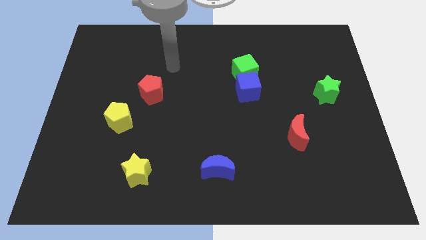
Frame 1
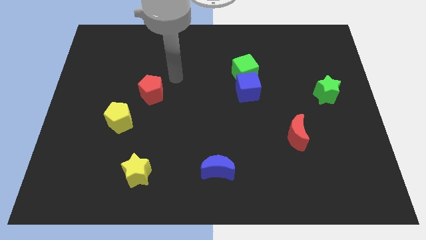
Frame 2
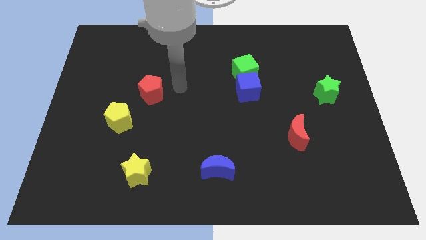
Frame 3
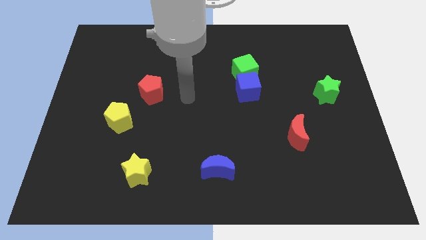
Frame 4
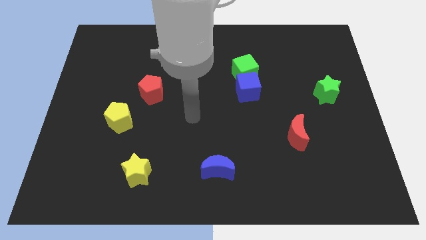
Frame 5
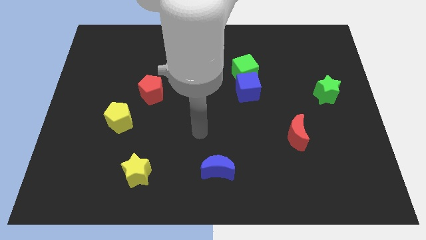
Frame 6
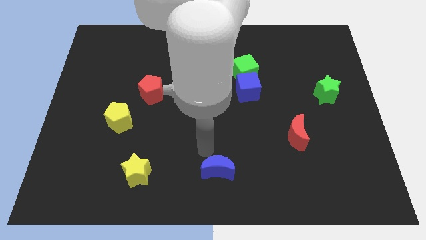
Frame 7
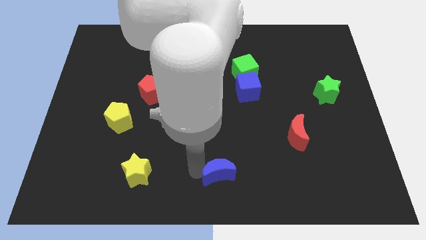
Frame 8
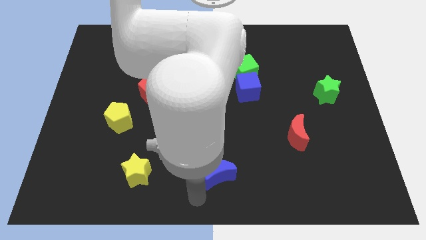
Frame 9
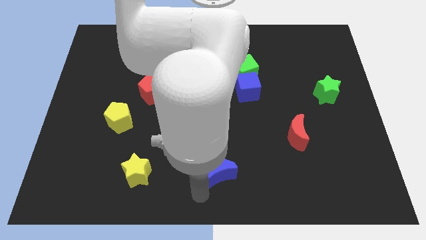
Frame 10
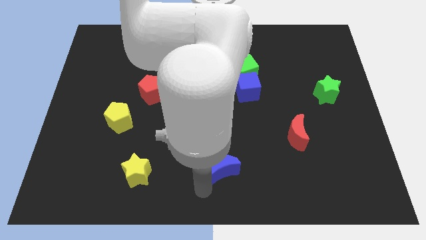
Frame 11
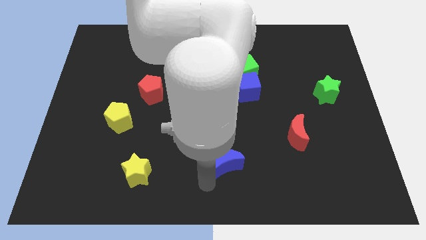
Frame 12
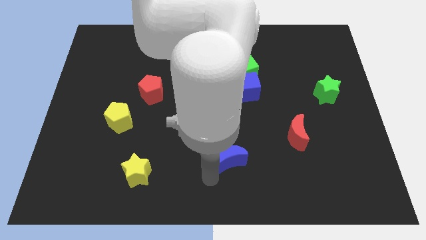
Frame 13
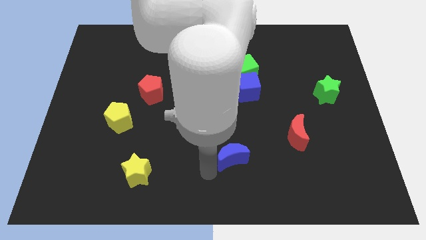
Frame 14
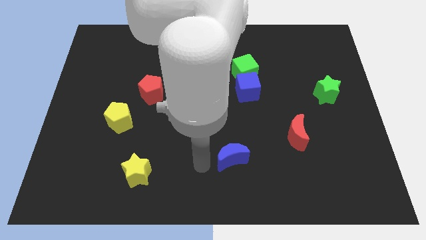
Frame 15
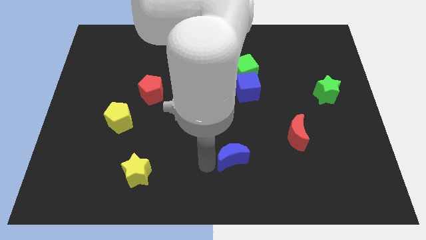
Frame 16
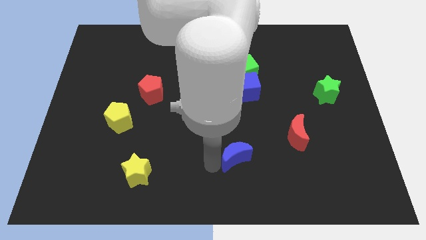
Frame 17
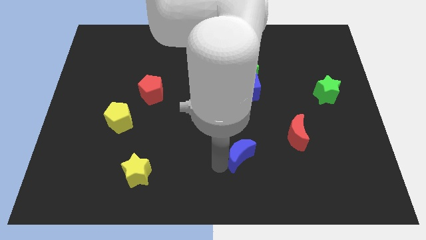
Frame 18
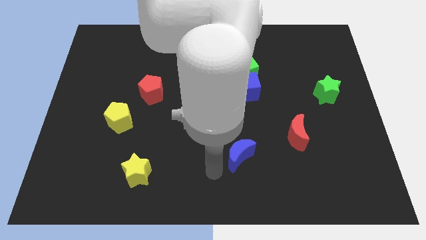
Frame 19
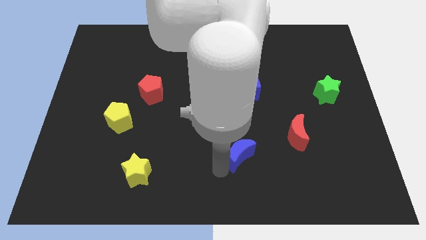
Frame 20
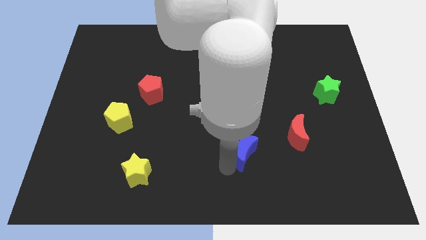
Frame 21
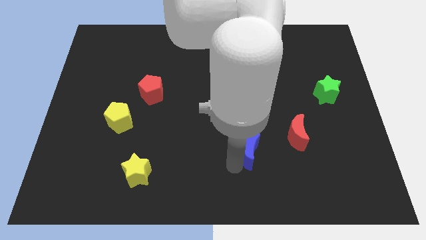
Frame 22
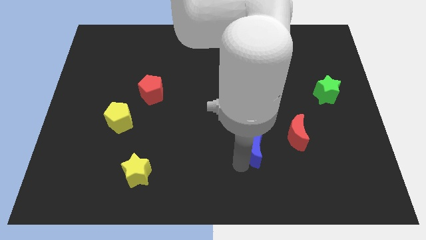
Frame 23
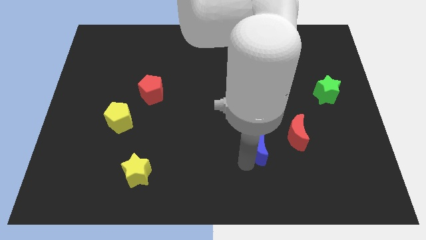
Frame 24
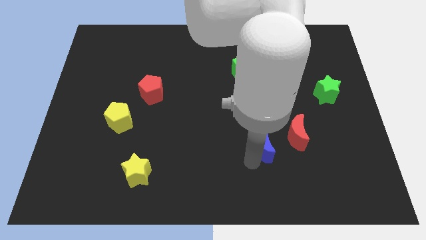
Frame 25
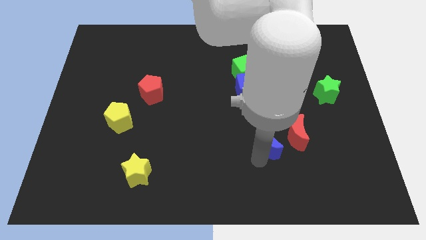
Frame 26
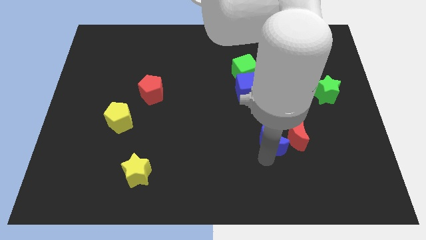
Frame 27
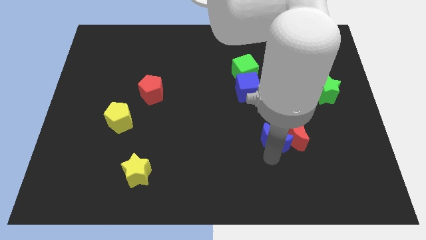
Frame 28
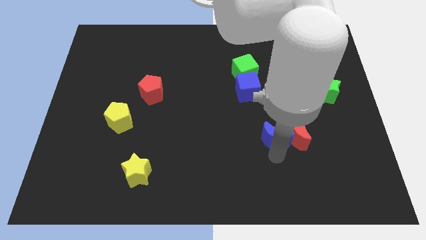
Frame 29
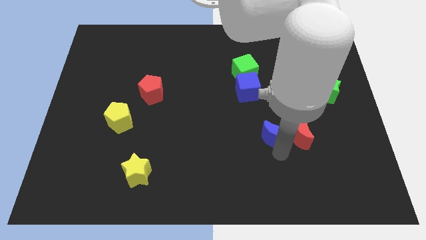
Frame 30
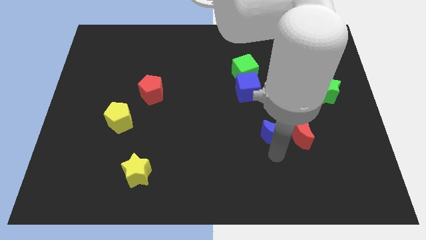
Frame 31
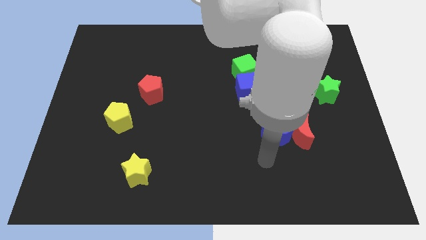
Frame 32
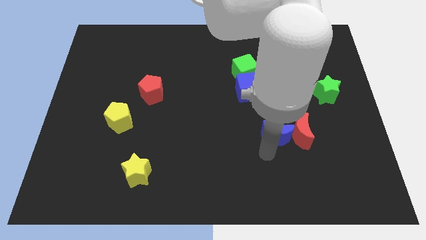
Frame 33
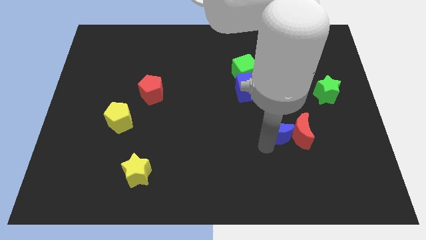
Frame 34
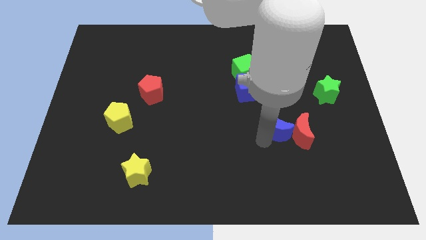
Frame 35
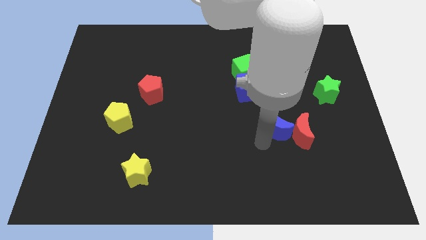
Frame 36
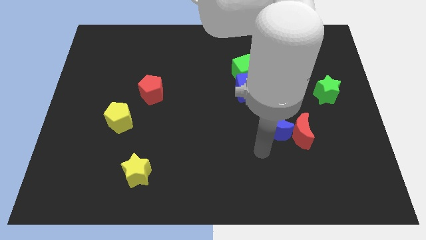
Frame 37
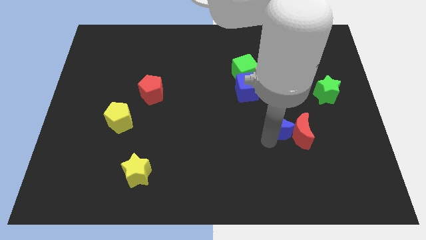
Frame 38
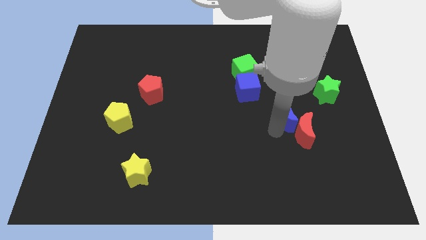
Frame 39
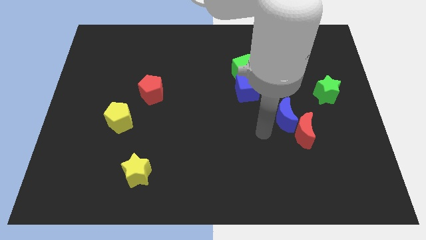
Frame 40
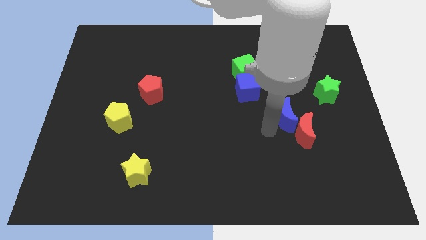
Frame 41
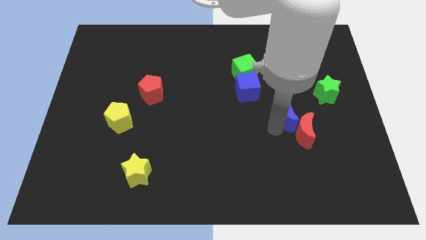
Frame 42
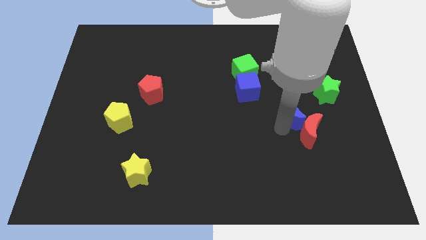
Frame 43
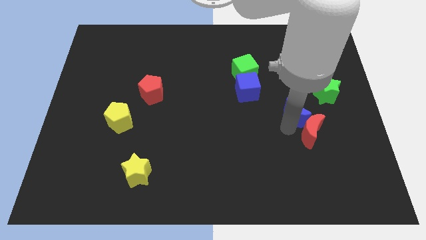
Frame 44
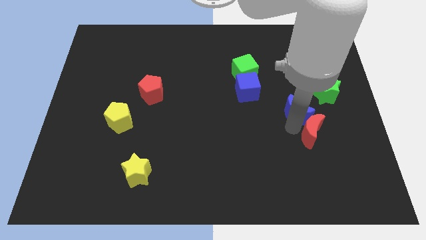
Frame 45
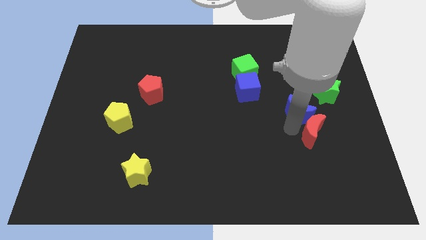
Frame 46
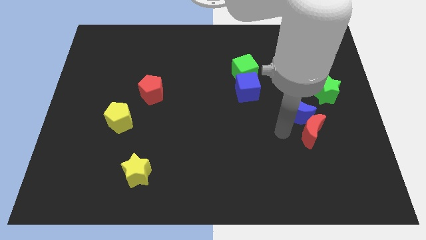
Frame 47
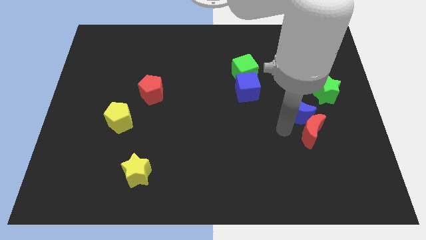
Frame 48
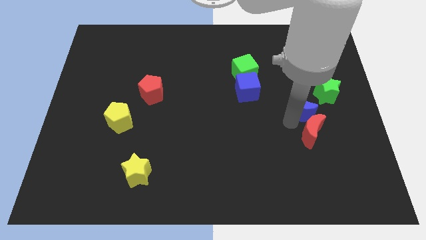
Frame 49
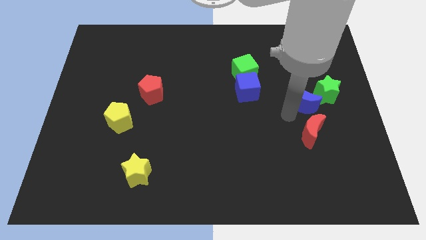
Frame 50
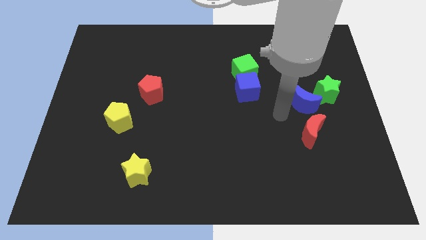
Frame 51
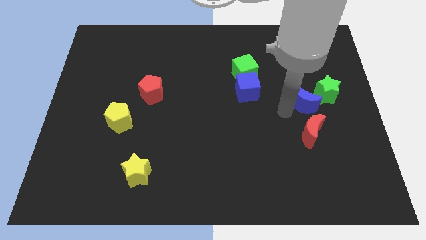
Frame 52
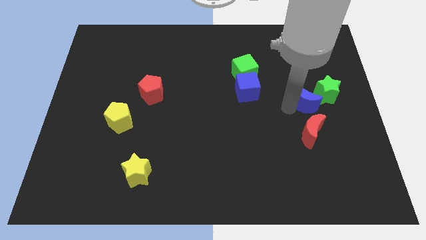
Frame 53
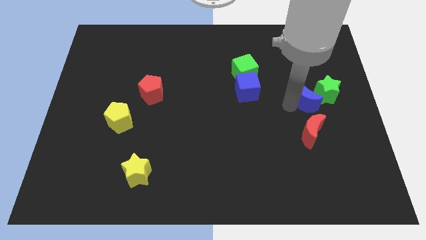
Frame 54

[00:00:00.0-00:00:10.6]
move the blue moon towards the green star

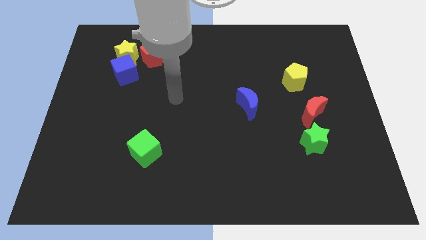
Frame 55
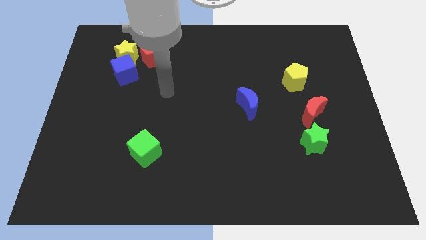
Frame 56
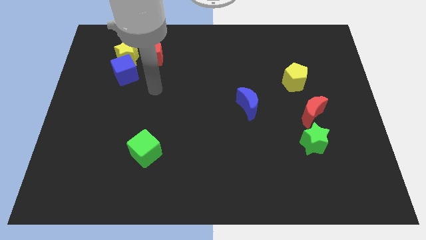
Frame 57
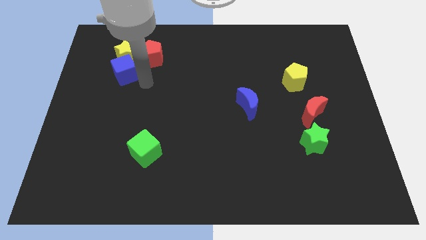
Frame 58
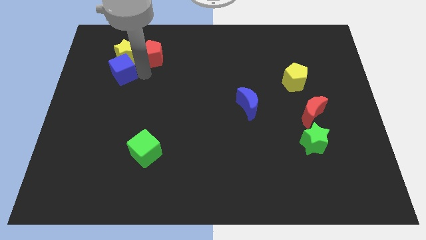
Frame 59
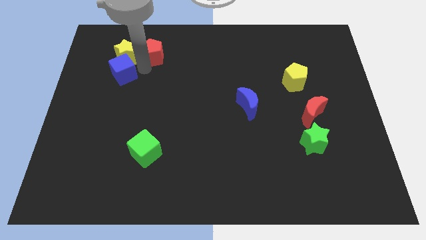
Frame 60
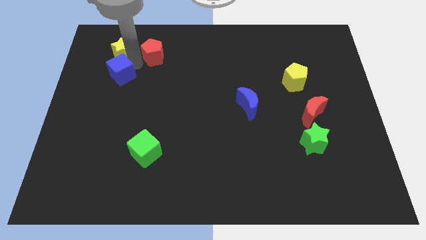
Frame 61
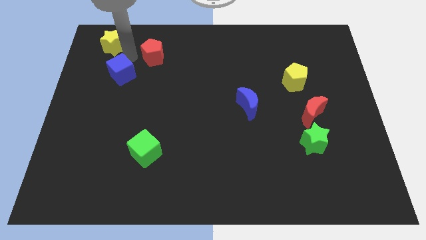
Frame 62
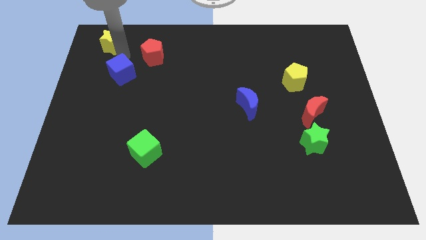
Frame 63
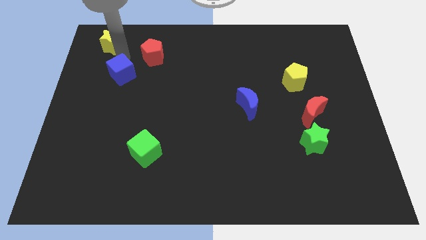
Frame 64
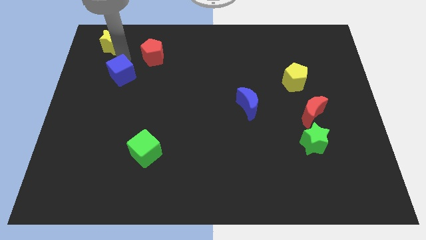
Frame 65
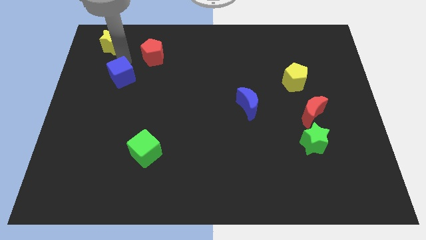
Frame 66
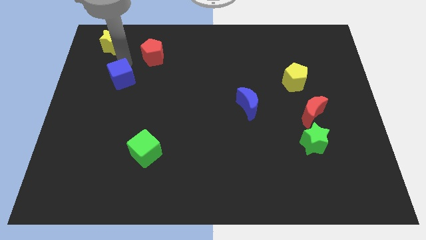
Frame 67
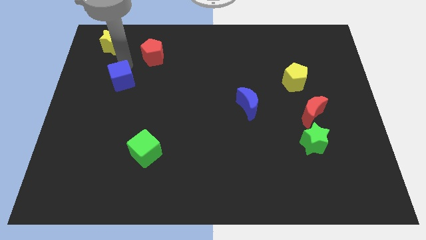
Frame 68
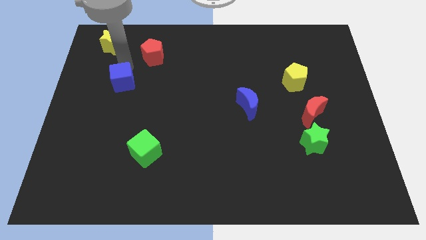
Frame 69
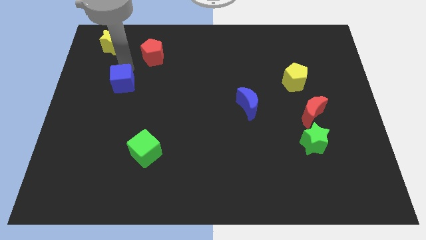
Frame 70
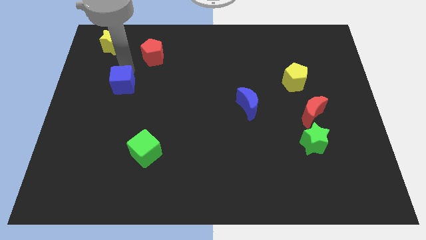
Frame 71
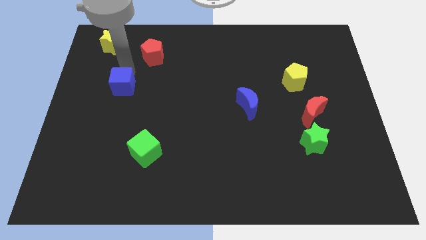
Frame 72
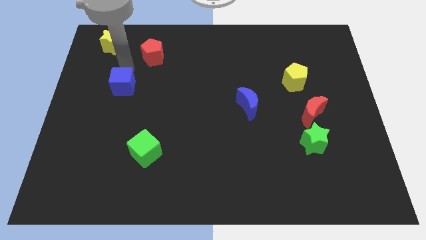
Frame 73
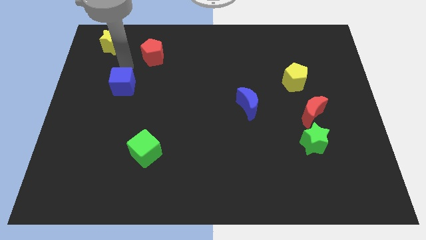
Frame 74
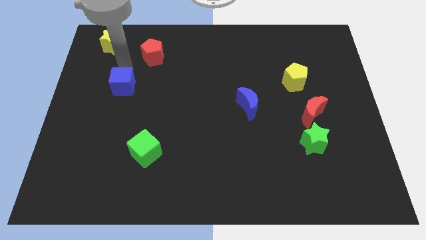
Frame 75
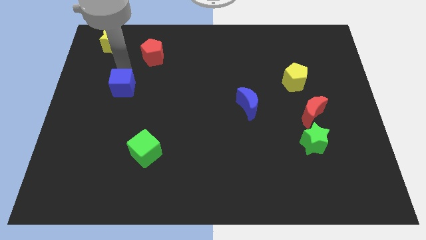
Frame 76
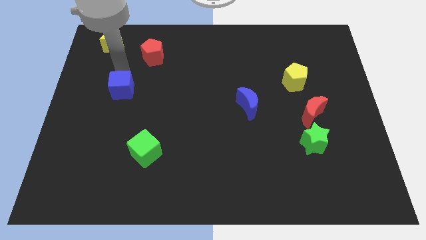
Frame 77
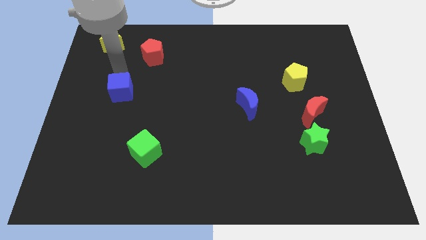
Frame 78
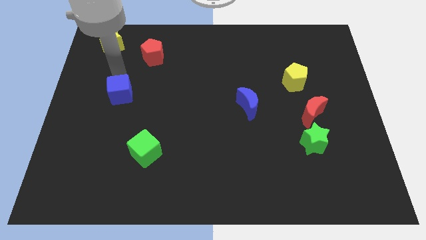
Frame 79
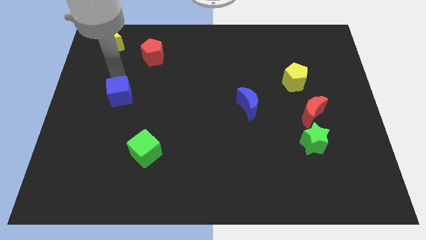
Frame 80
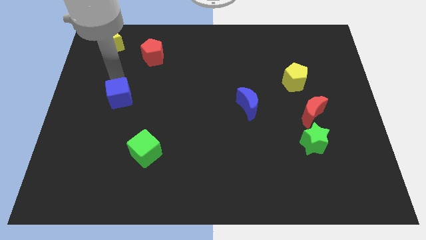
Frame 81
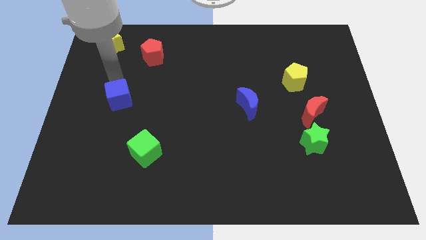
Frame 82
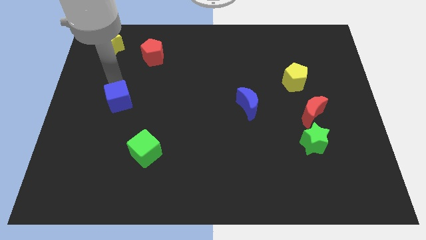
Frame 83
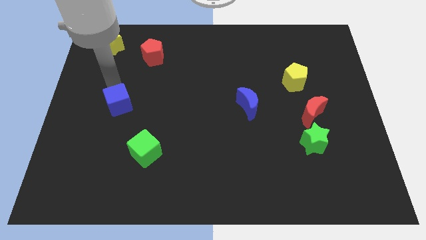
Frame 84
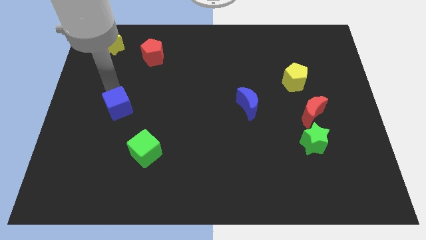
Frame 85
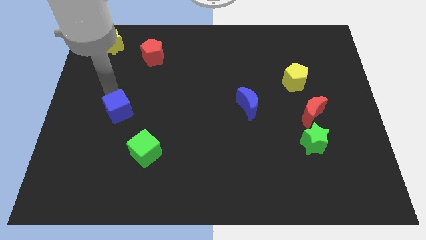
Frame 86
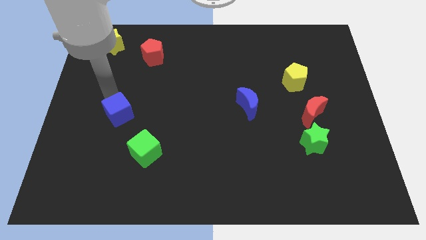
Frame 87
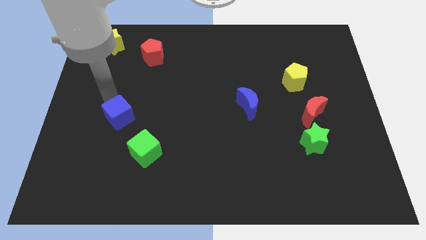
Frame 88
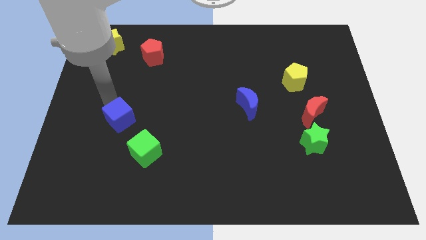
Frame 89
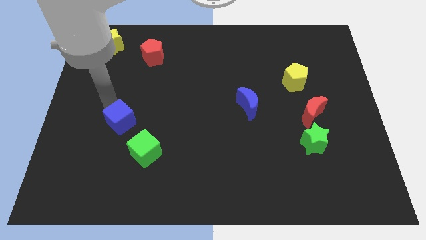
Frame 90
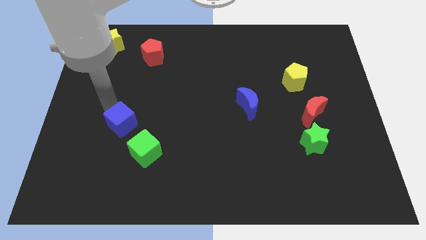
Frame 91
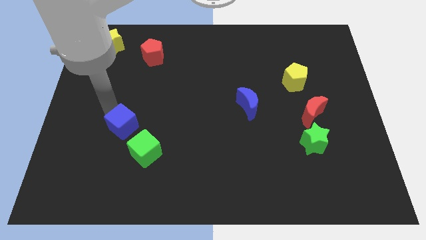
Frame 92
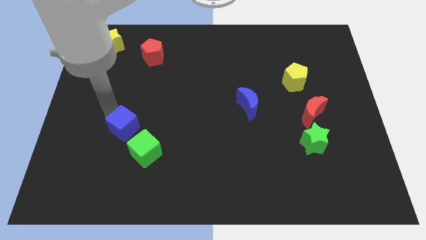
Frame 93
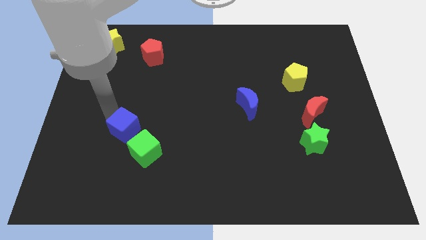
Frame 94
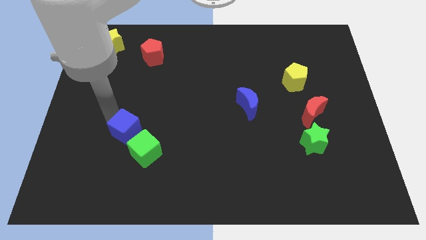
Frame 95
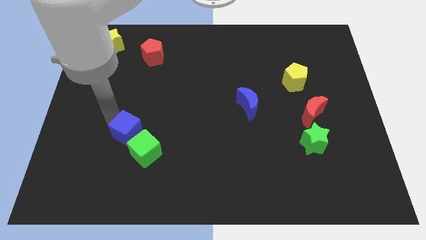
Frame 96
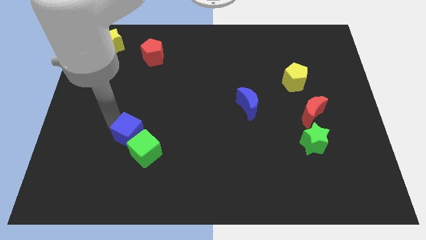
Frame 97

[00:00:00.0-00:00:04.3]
slide the blue cube towards the green cube
